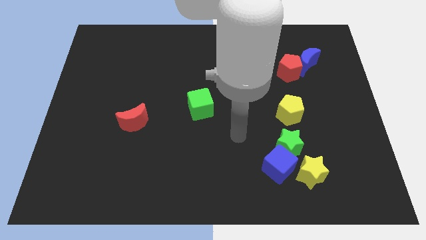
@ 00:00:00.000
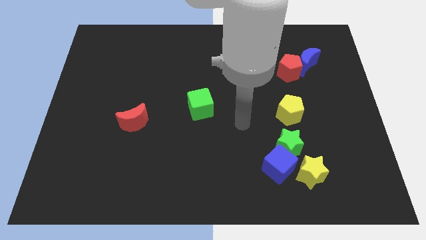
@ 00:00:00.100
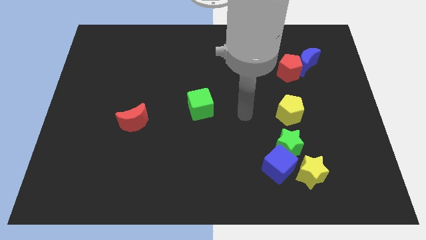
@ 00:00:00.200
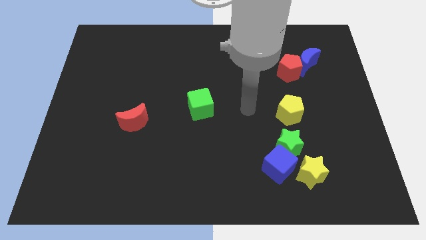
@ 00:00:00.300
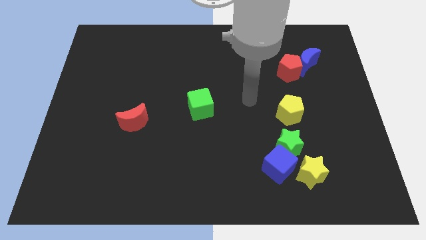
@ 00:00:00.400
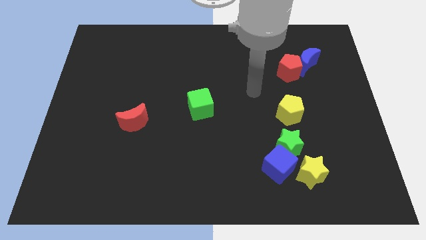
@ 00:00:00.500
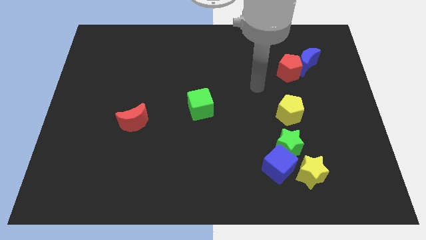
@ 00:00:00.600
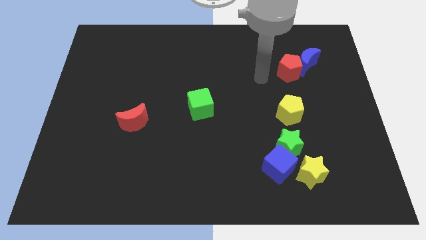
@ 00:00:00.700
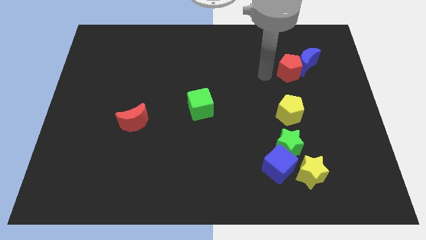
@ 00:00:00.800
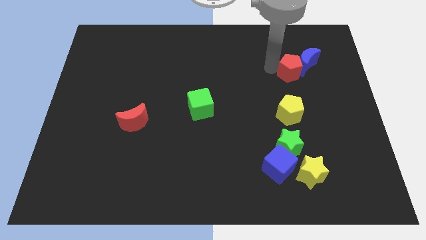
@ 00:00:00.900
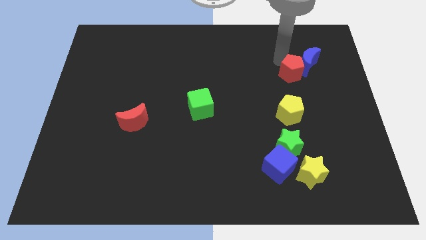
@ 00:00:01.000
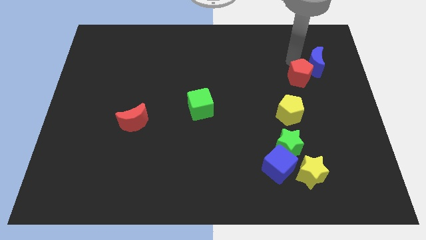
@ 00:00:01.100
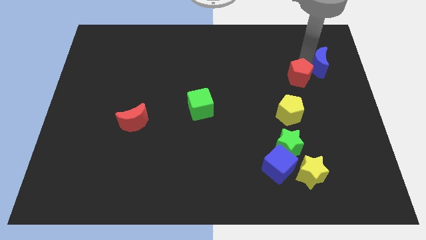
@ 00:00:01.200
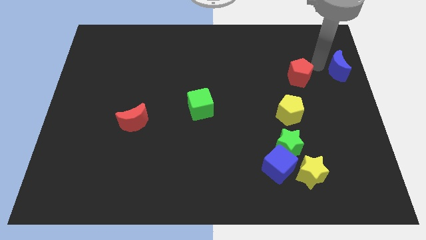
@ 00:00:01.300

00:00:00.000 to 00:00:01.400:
separate the red pentagon from the blue moon

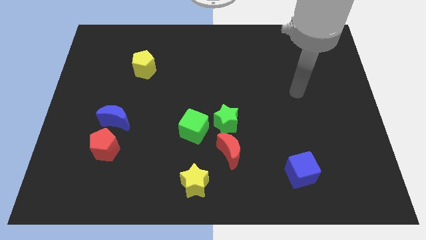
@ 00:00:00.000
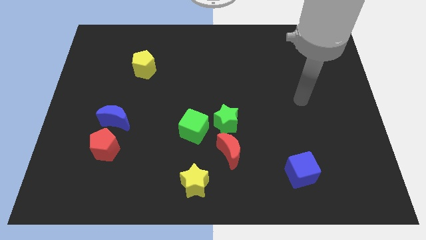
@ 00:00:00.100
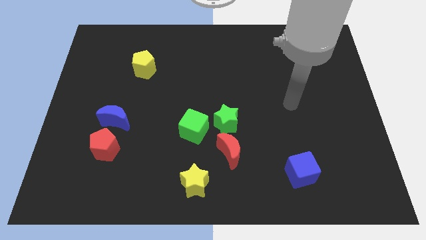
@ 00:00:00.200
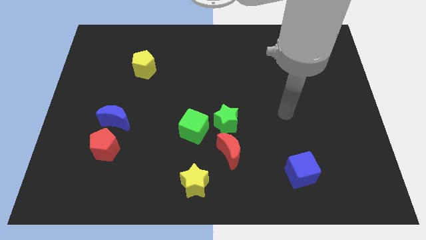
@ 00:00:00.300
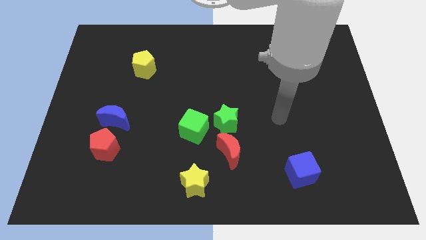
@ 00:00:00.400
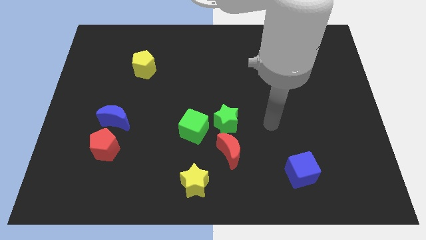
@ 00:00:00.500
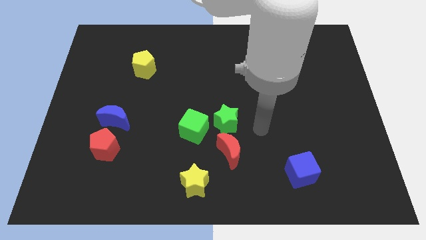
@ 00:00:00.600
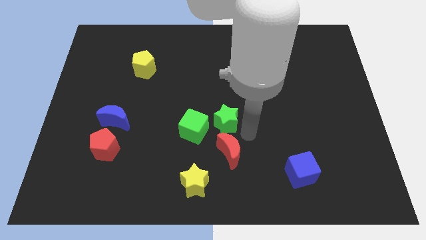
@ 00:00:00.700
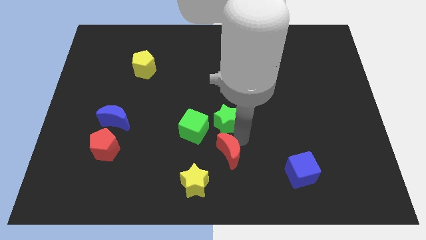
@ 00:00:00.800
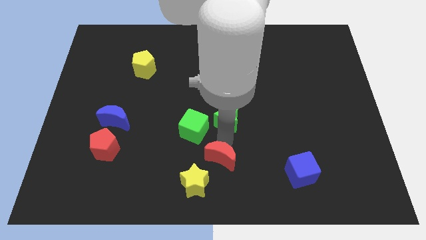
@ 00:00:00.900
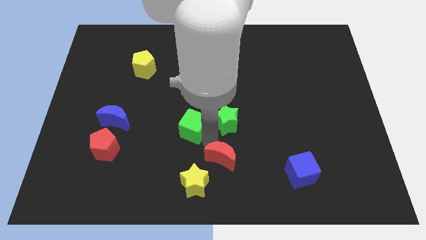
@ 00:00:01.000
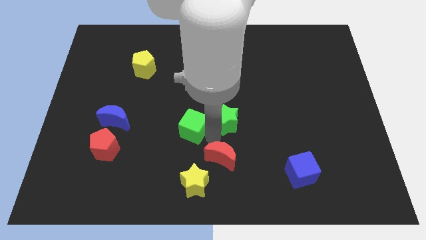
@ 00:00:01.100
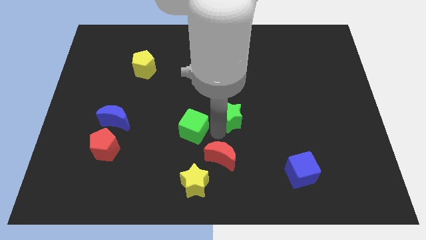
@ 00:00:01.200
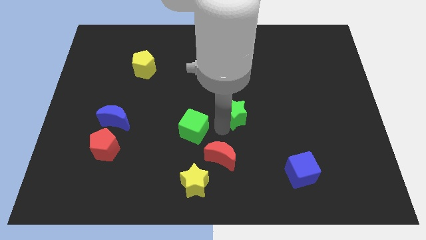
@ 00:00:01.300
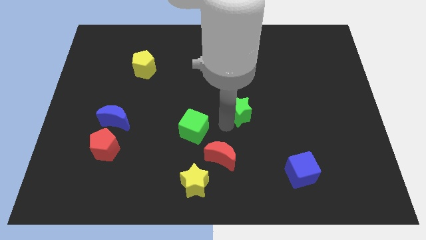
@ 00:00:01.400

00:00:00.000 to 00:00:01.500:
separate the green star from the red moon and green cube

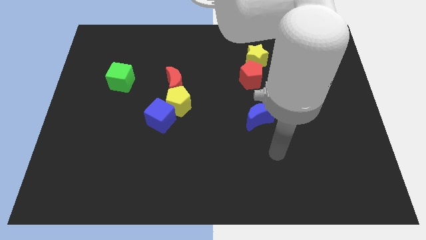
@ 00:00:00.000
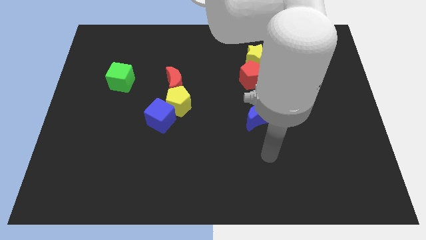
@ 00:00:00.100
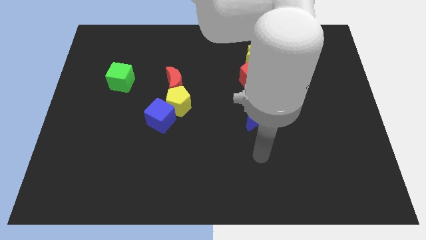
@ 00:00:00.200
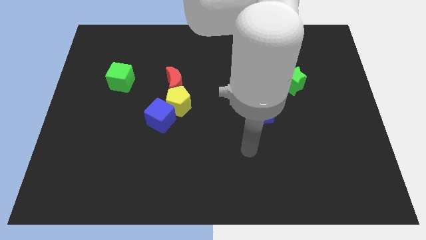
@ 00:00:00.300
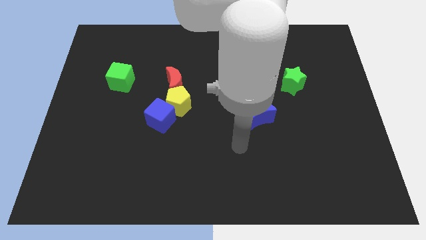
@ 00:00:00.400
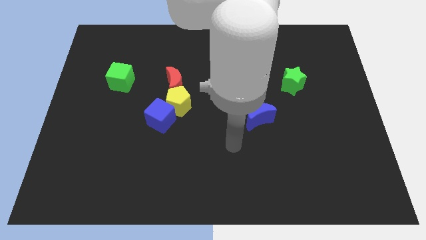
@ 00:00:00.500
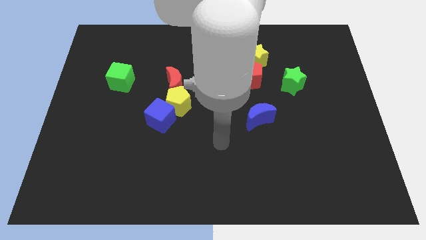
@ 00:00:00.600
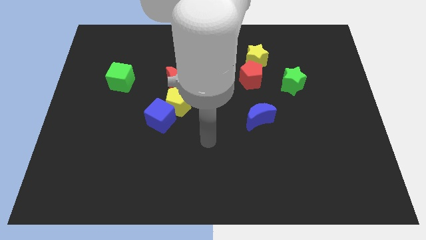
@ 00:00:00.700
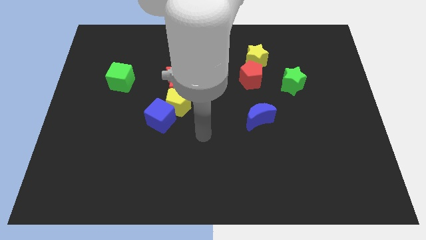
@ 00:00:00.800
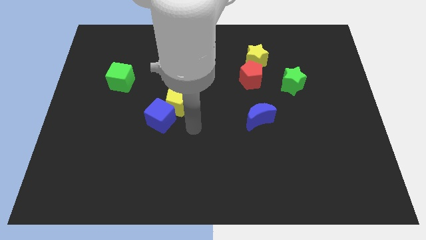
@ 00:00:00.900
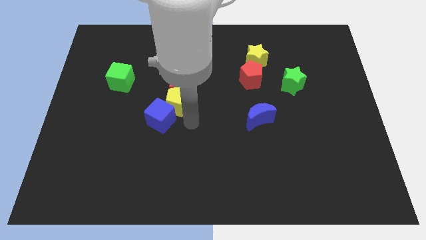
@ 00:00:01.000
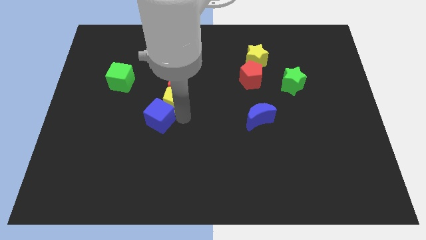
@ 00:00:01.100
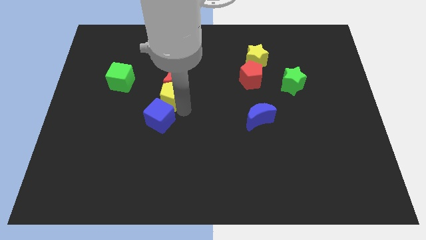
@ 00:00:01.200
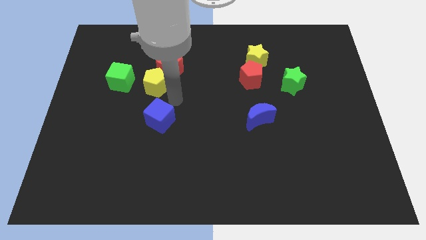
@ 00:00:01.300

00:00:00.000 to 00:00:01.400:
pull the blue cube apart from the yellow pentagon

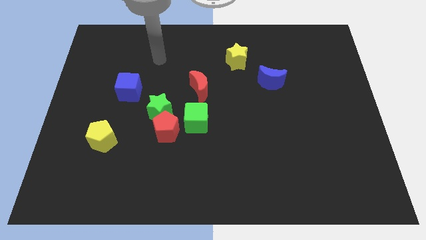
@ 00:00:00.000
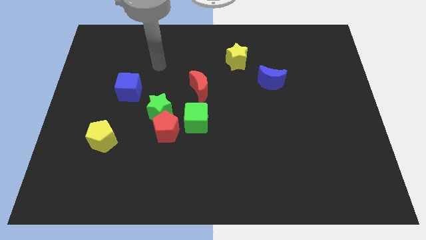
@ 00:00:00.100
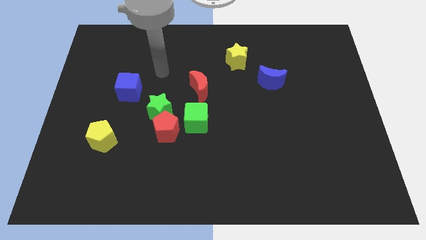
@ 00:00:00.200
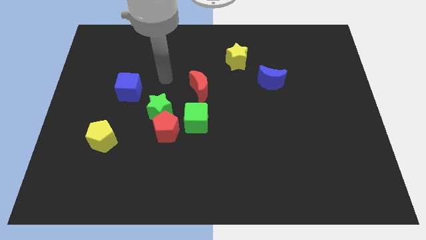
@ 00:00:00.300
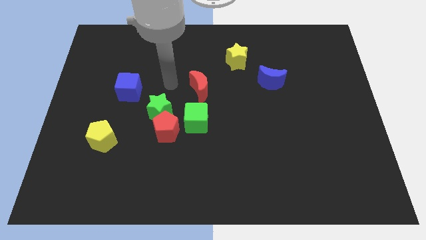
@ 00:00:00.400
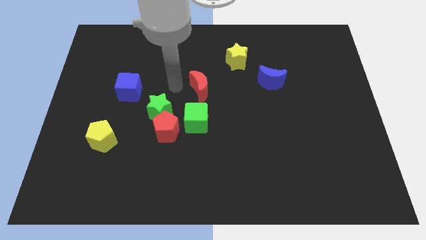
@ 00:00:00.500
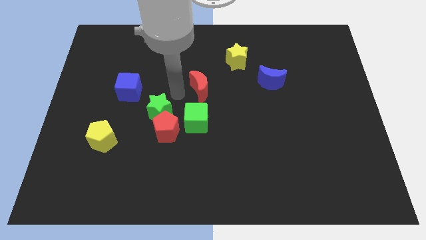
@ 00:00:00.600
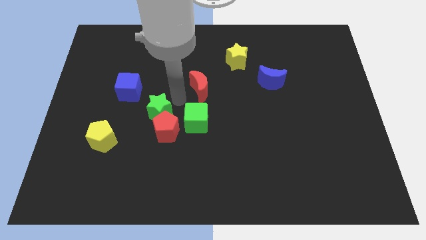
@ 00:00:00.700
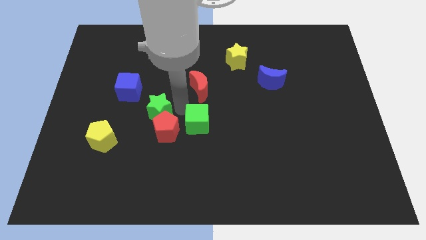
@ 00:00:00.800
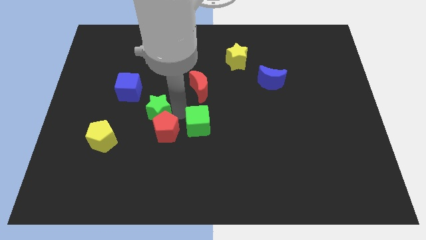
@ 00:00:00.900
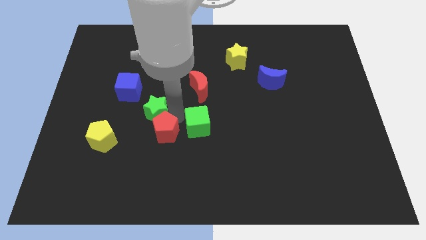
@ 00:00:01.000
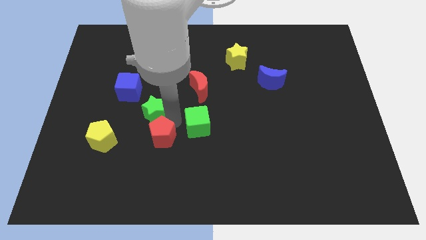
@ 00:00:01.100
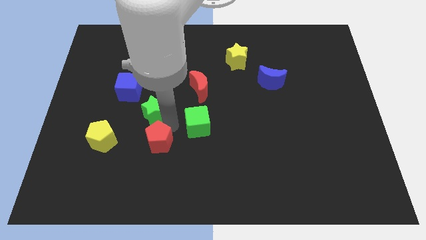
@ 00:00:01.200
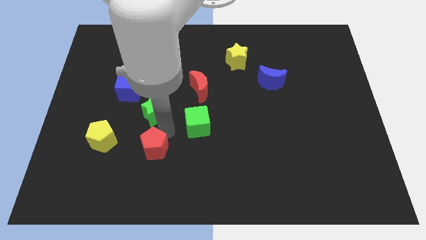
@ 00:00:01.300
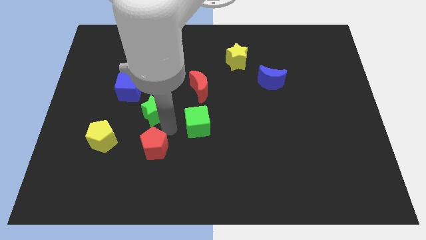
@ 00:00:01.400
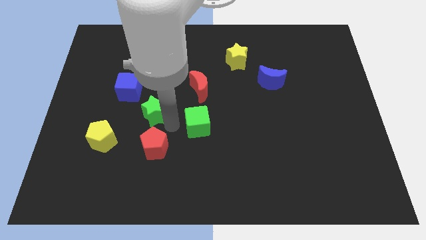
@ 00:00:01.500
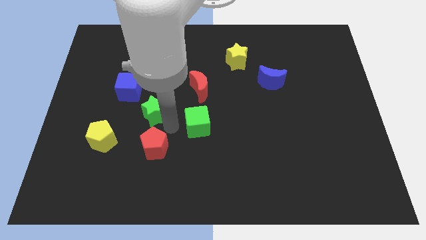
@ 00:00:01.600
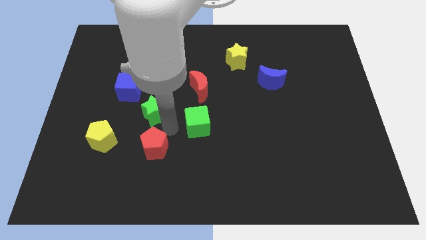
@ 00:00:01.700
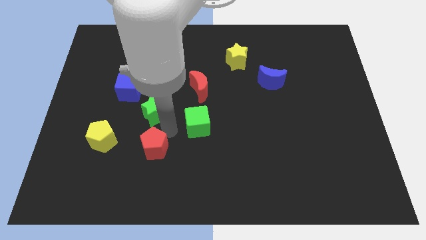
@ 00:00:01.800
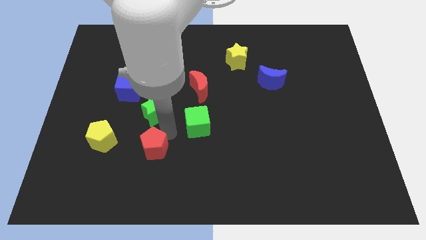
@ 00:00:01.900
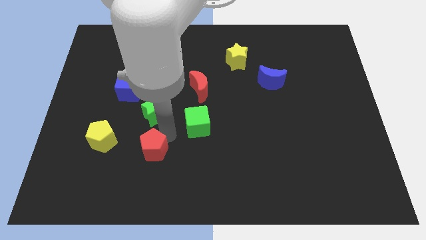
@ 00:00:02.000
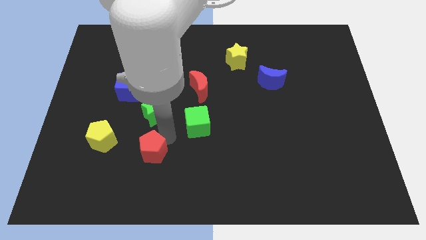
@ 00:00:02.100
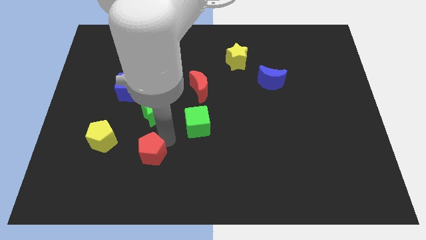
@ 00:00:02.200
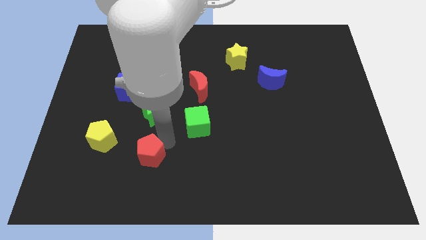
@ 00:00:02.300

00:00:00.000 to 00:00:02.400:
separate the red pentagon from the green star and green cube

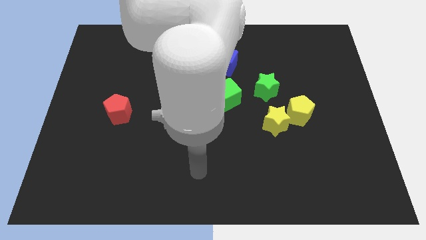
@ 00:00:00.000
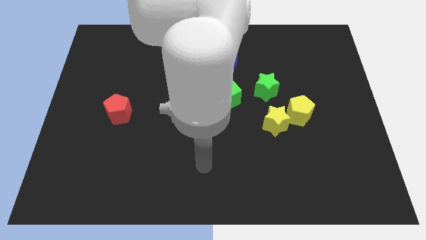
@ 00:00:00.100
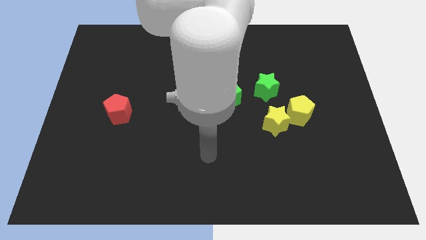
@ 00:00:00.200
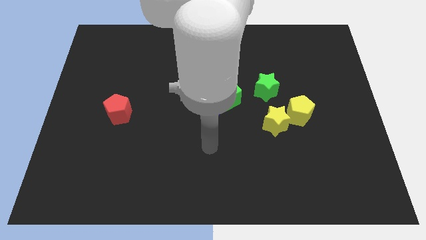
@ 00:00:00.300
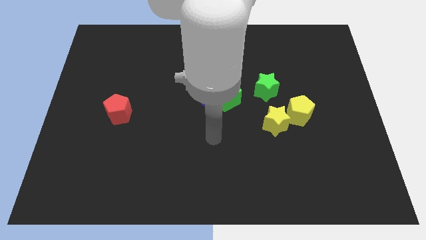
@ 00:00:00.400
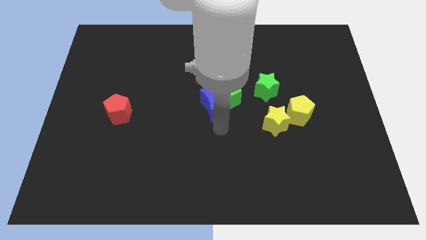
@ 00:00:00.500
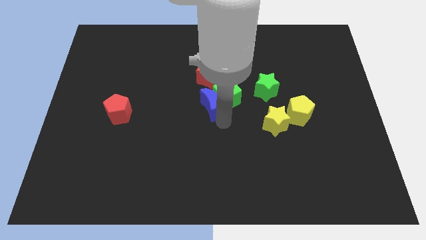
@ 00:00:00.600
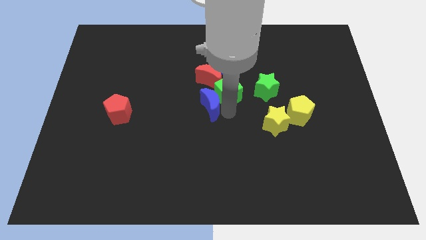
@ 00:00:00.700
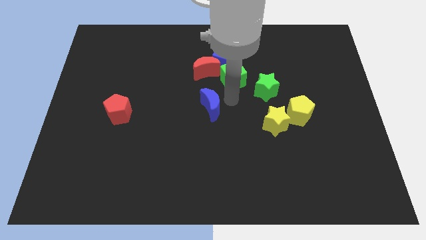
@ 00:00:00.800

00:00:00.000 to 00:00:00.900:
pull the blue moon apart from the green cube and red moon

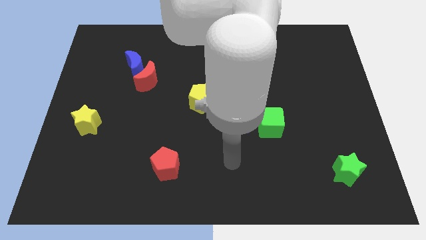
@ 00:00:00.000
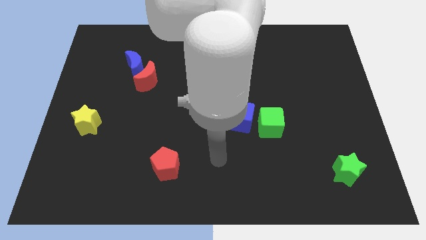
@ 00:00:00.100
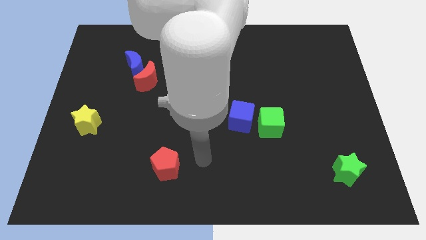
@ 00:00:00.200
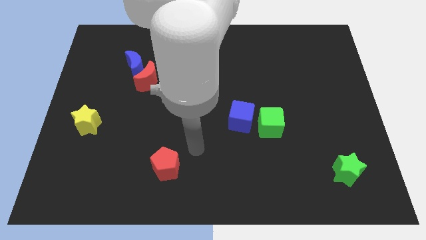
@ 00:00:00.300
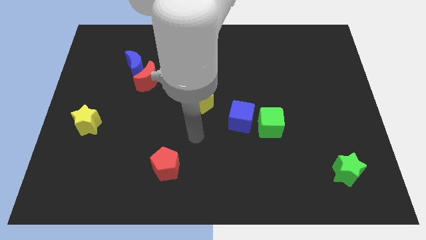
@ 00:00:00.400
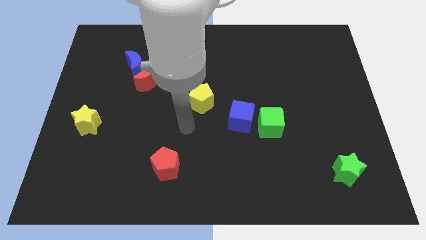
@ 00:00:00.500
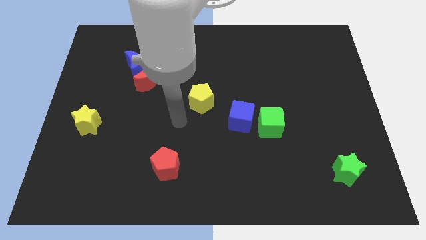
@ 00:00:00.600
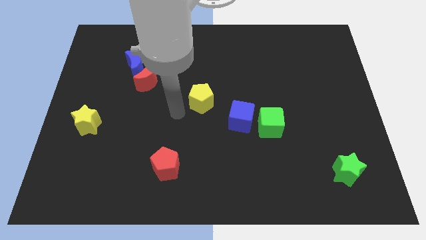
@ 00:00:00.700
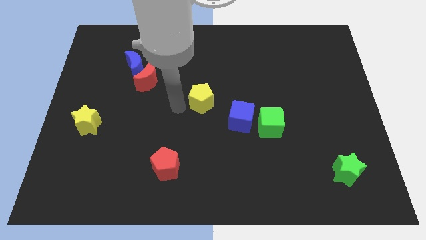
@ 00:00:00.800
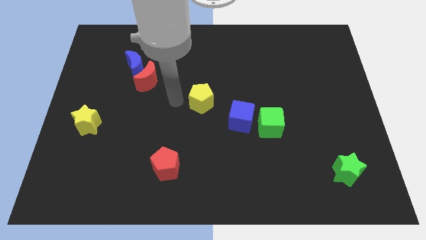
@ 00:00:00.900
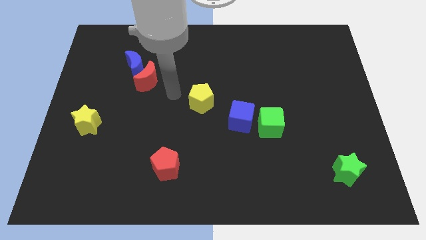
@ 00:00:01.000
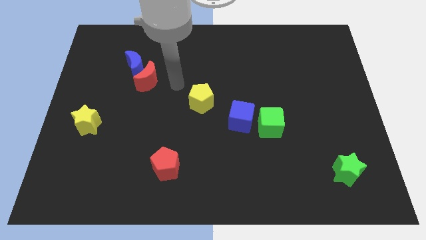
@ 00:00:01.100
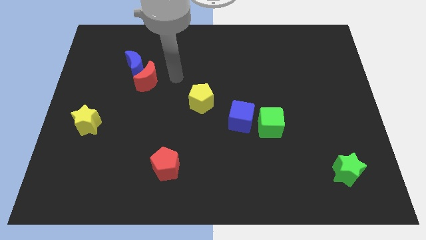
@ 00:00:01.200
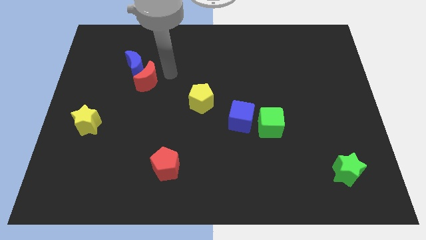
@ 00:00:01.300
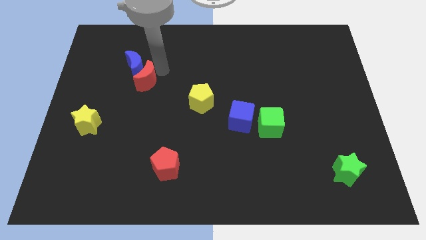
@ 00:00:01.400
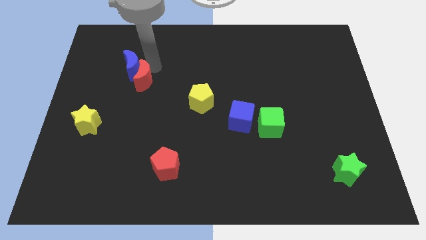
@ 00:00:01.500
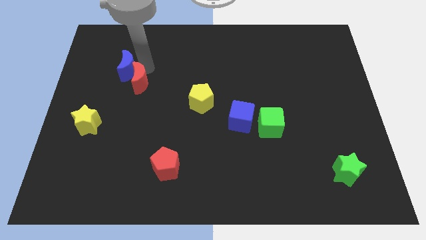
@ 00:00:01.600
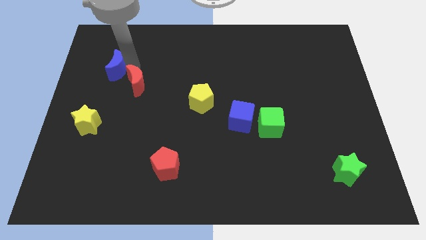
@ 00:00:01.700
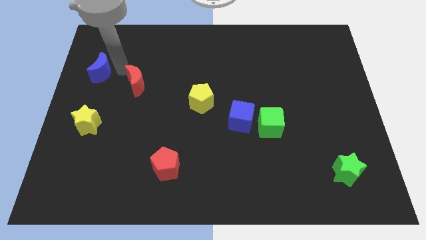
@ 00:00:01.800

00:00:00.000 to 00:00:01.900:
separate the red moon from the blue moon
